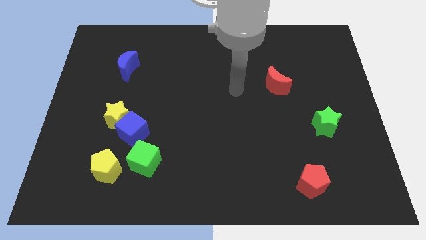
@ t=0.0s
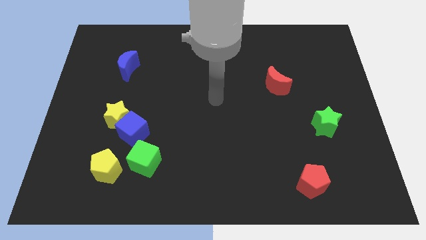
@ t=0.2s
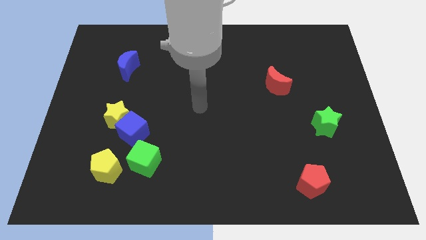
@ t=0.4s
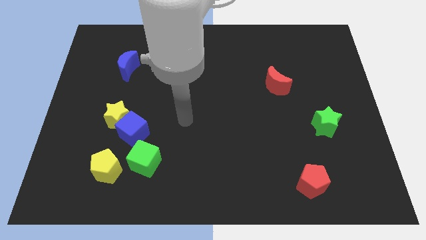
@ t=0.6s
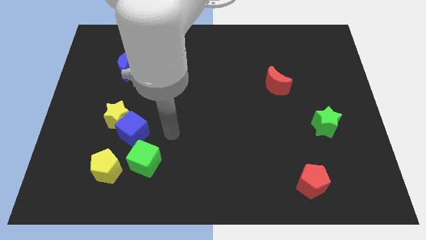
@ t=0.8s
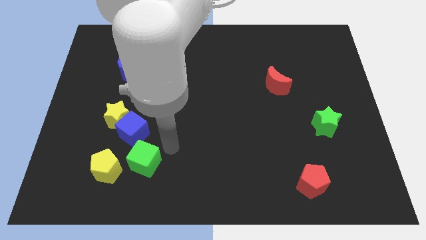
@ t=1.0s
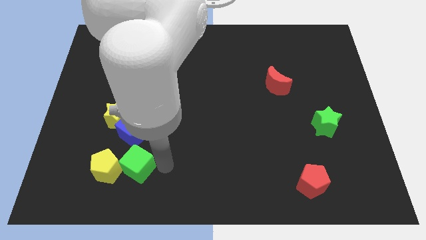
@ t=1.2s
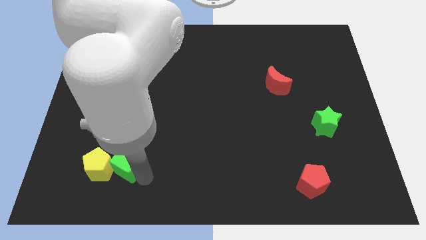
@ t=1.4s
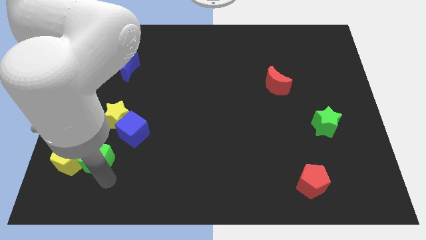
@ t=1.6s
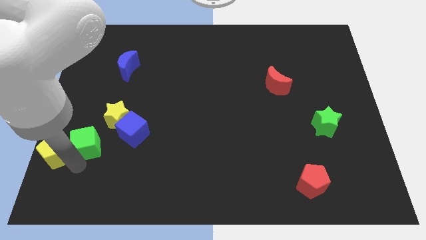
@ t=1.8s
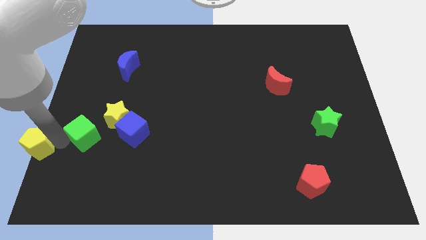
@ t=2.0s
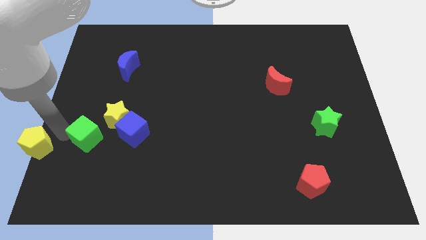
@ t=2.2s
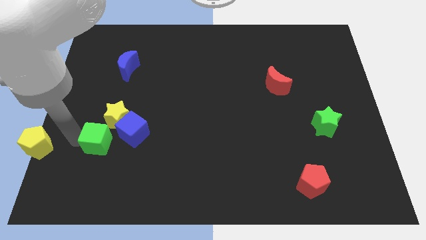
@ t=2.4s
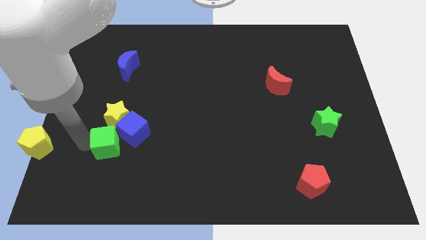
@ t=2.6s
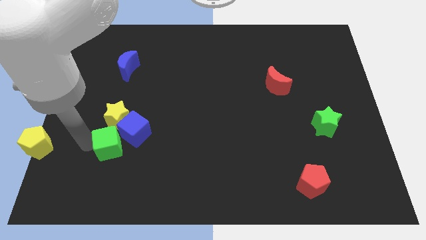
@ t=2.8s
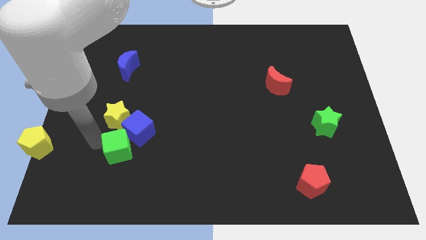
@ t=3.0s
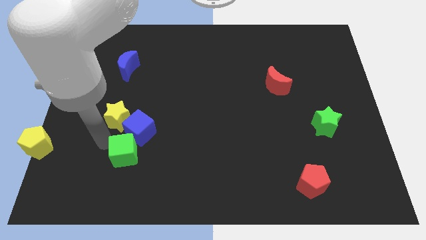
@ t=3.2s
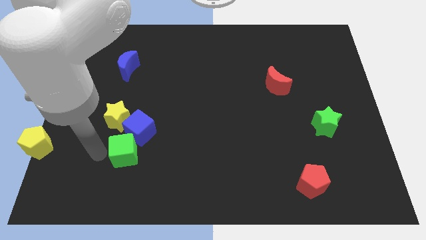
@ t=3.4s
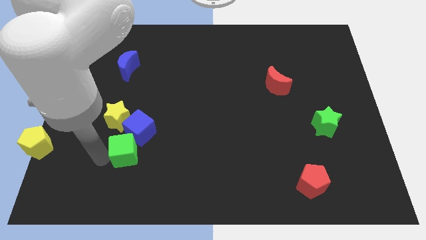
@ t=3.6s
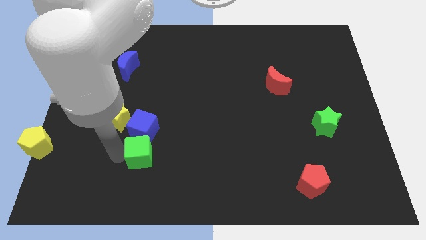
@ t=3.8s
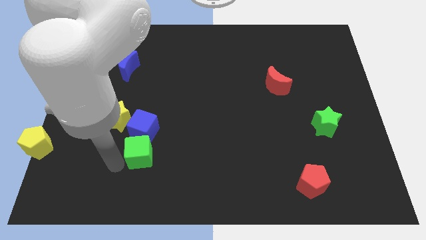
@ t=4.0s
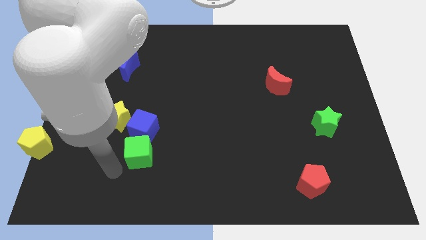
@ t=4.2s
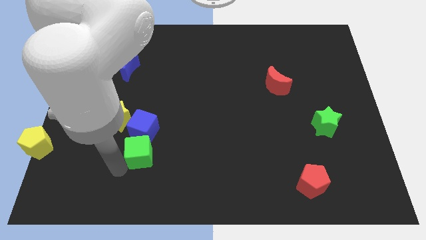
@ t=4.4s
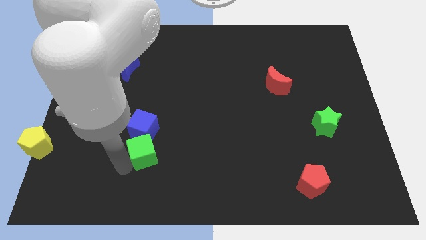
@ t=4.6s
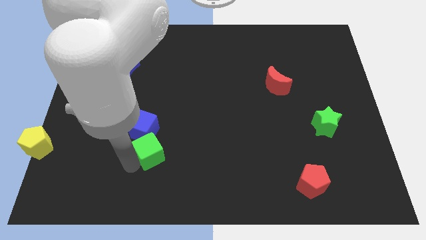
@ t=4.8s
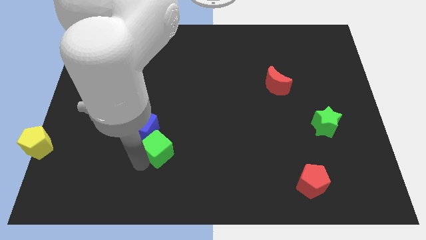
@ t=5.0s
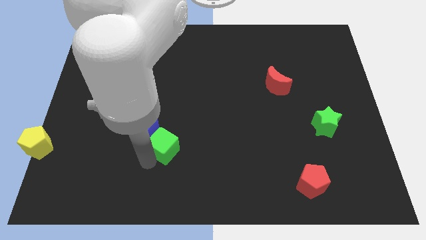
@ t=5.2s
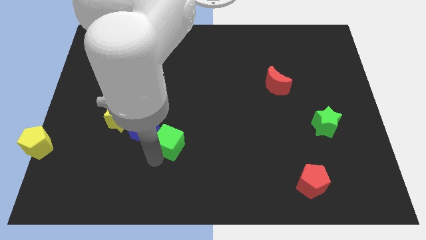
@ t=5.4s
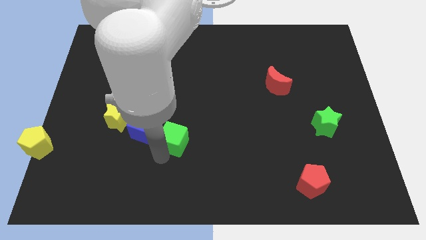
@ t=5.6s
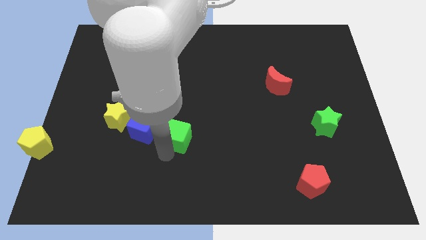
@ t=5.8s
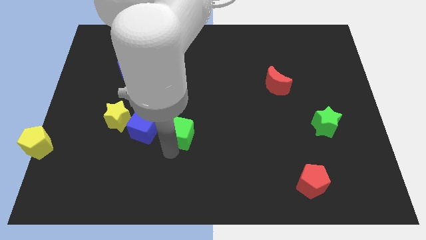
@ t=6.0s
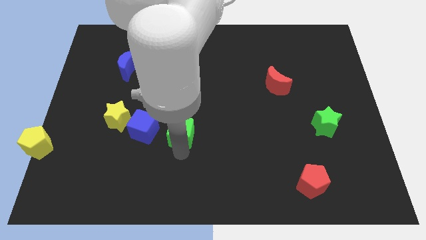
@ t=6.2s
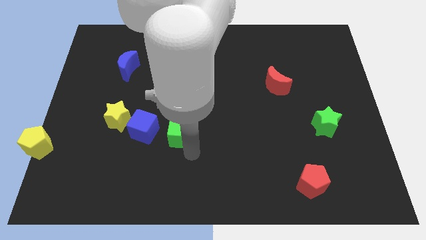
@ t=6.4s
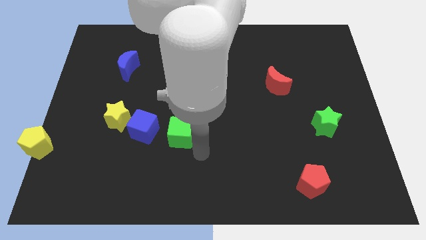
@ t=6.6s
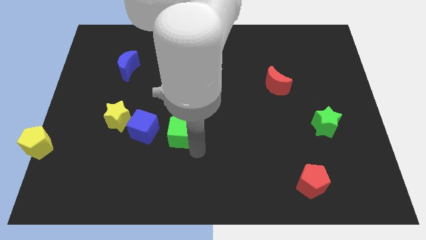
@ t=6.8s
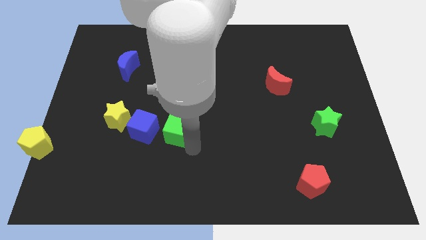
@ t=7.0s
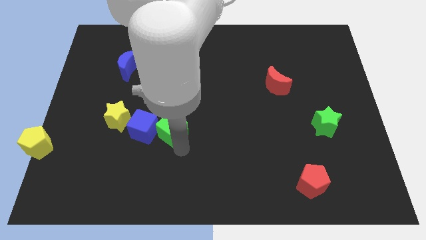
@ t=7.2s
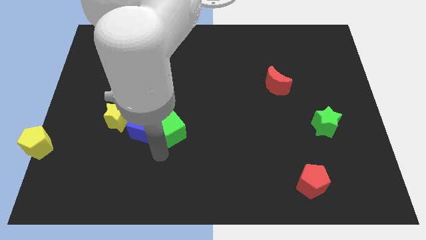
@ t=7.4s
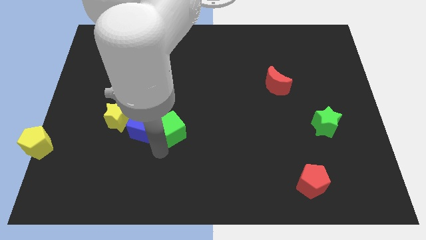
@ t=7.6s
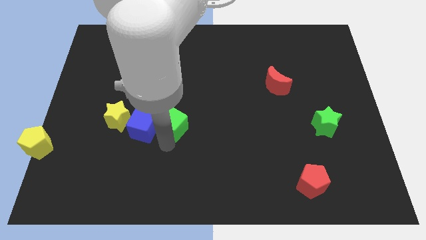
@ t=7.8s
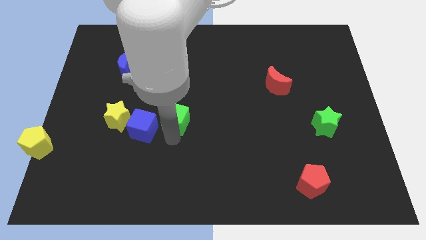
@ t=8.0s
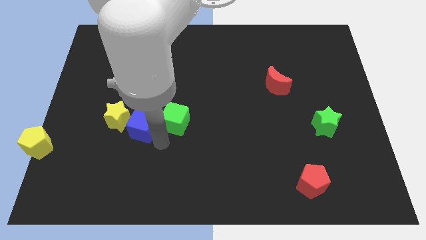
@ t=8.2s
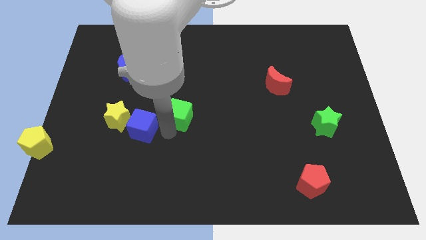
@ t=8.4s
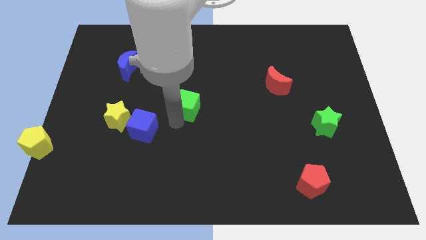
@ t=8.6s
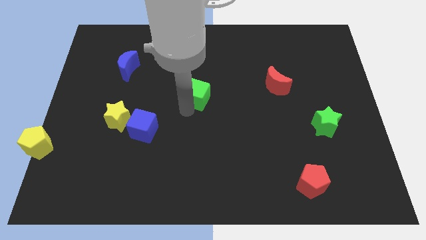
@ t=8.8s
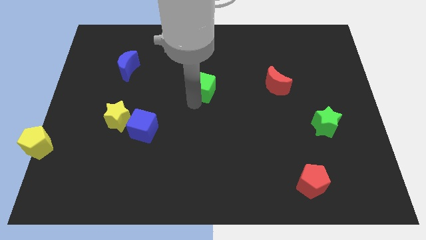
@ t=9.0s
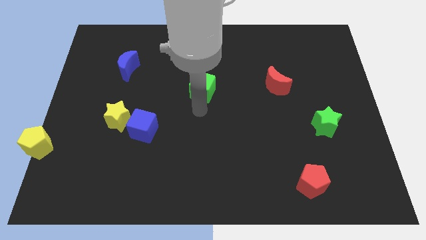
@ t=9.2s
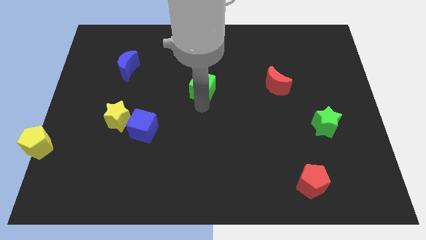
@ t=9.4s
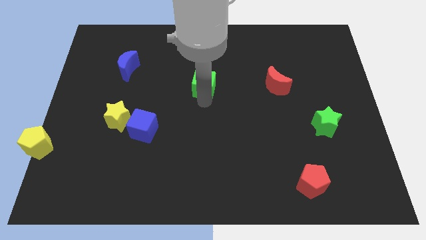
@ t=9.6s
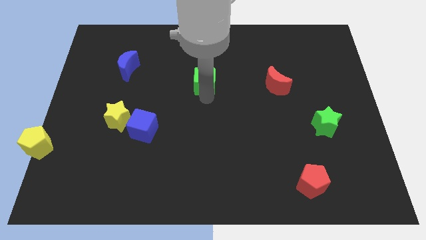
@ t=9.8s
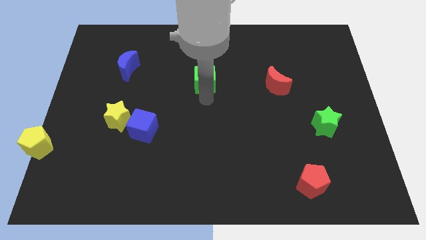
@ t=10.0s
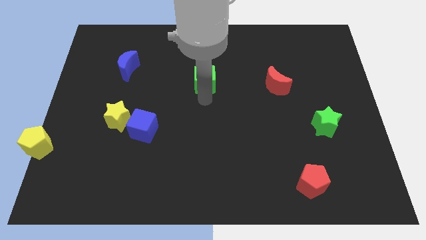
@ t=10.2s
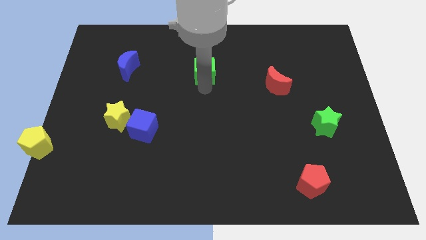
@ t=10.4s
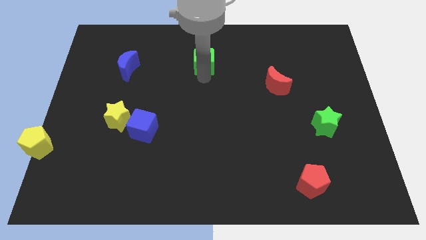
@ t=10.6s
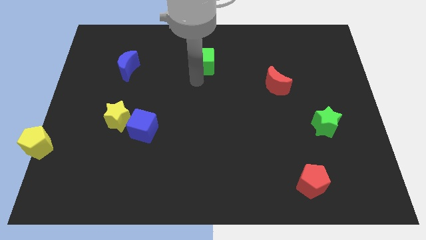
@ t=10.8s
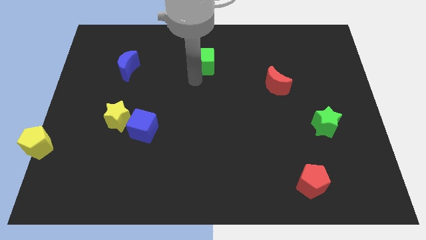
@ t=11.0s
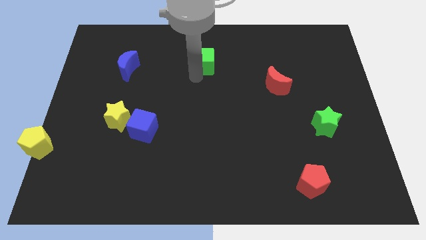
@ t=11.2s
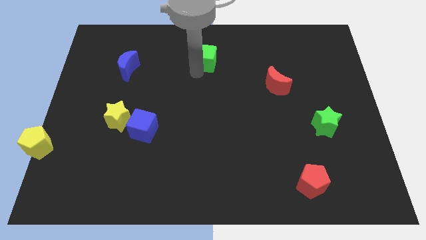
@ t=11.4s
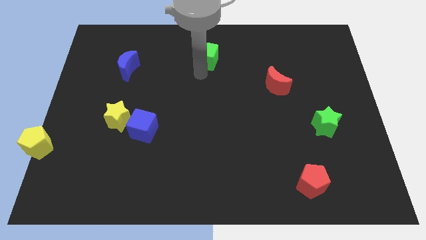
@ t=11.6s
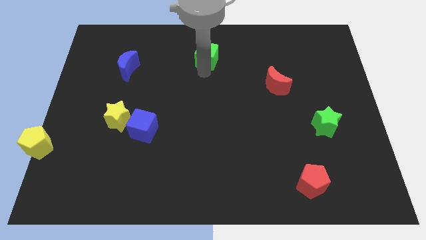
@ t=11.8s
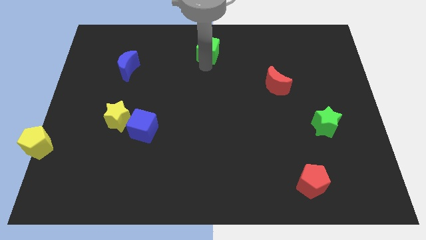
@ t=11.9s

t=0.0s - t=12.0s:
slide the green cube to the towards your base
